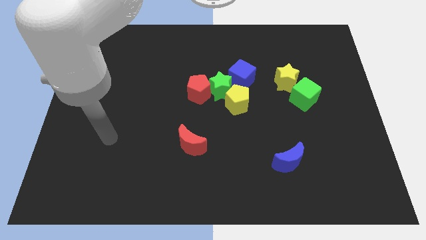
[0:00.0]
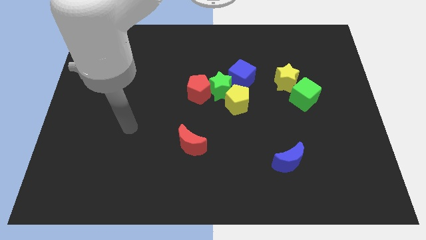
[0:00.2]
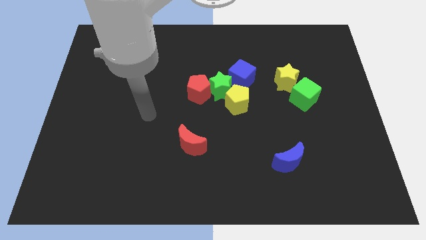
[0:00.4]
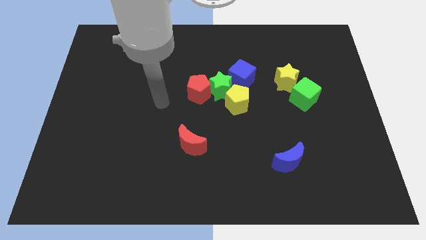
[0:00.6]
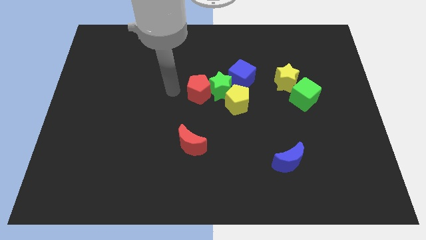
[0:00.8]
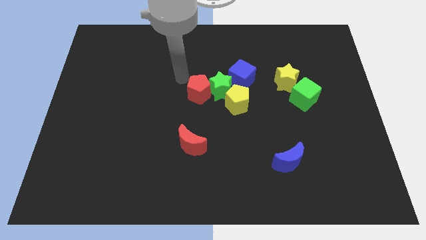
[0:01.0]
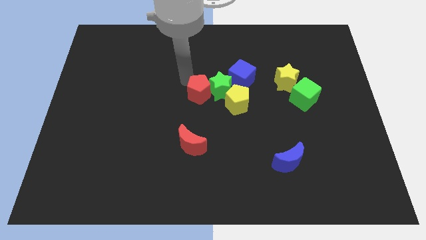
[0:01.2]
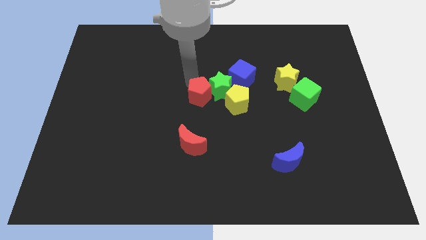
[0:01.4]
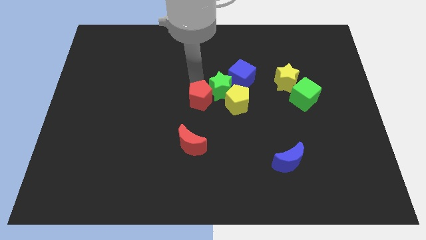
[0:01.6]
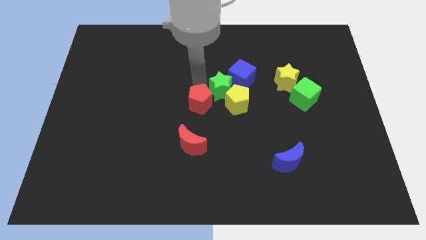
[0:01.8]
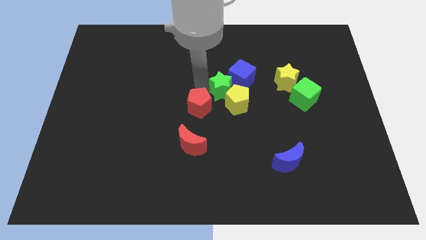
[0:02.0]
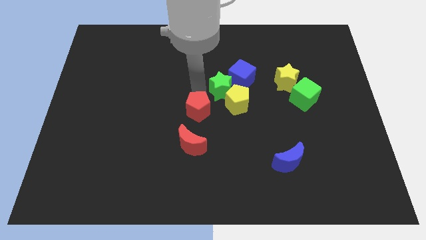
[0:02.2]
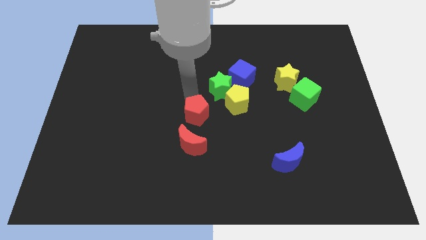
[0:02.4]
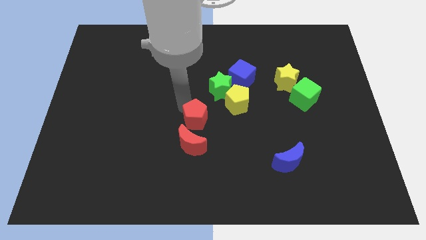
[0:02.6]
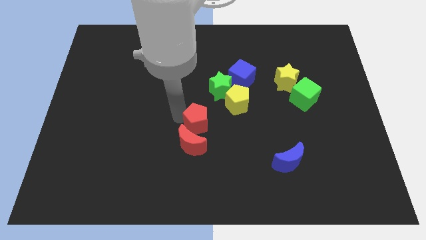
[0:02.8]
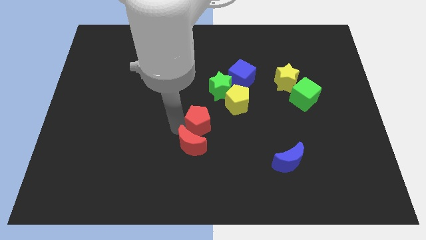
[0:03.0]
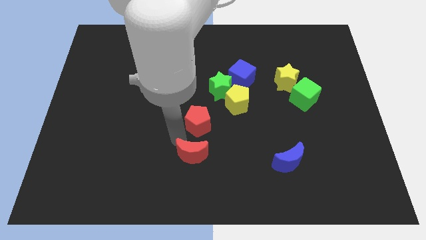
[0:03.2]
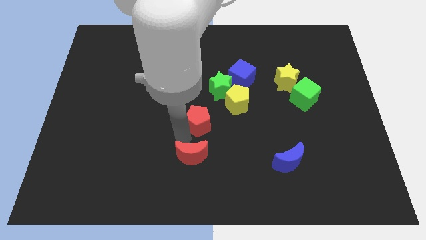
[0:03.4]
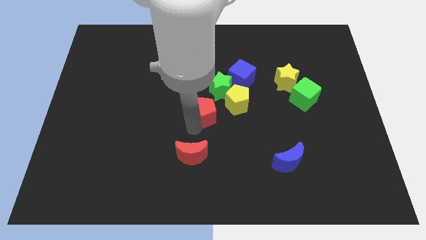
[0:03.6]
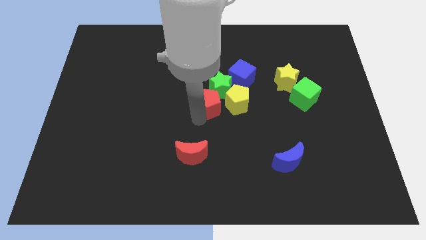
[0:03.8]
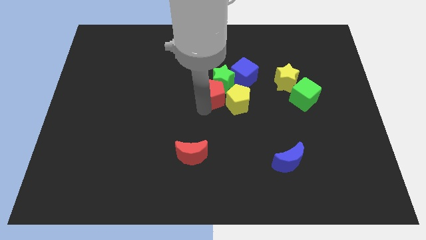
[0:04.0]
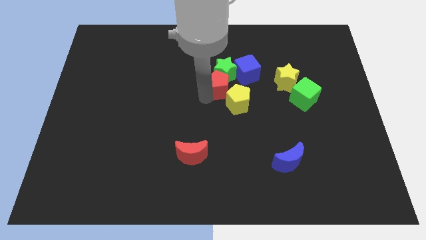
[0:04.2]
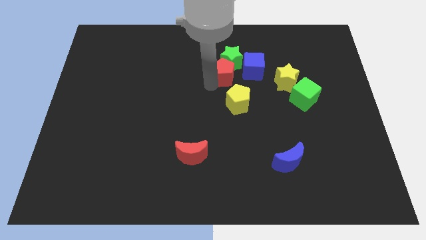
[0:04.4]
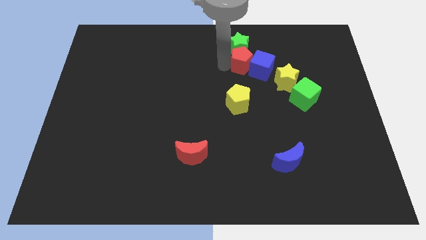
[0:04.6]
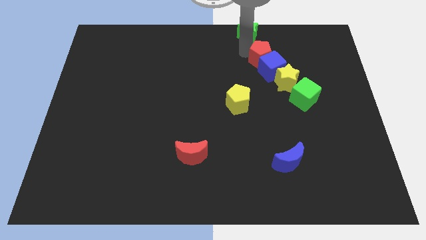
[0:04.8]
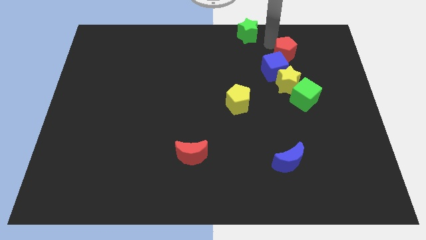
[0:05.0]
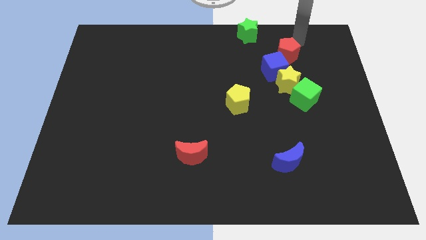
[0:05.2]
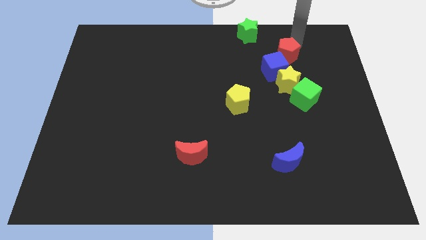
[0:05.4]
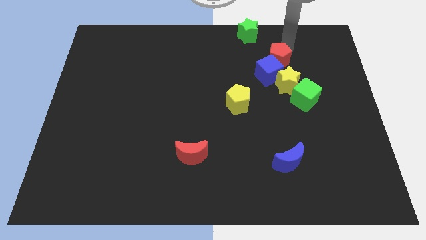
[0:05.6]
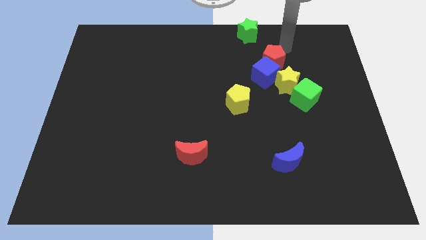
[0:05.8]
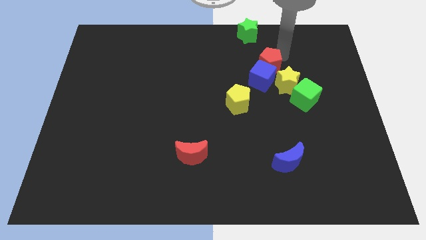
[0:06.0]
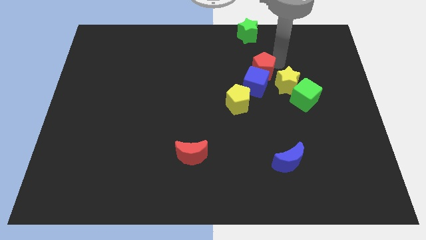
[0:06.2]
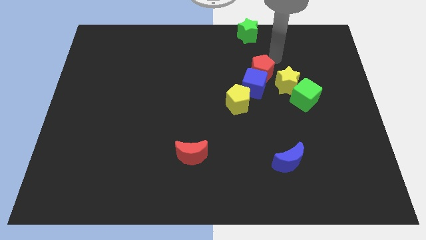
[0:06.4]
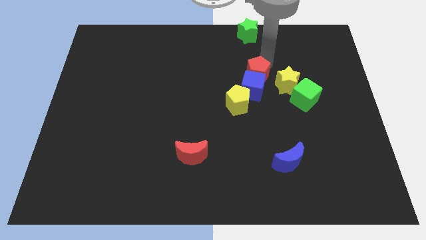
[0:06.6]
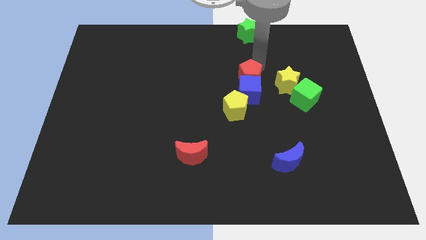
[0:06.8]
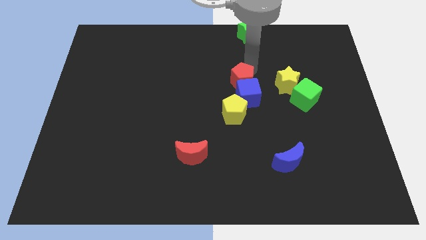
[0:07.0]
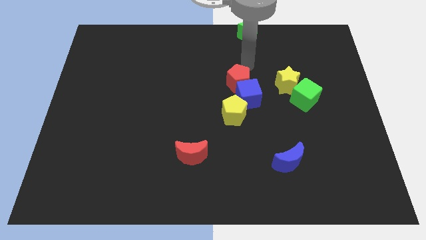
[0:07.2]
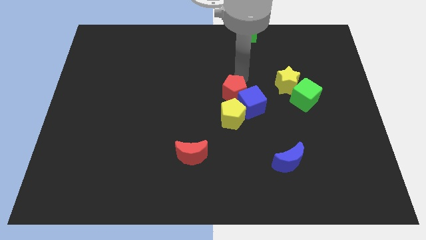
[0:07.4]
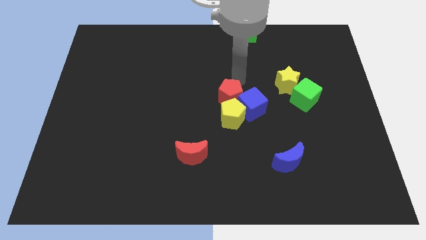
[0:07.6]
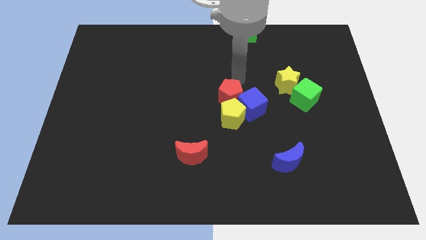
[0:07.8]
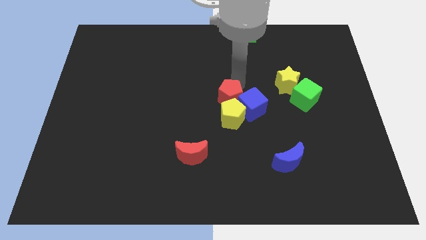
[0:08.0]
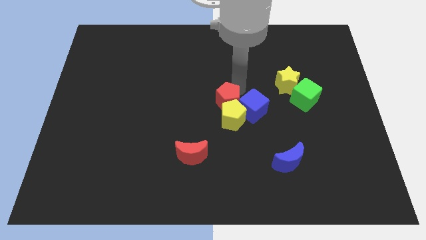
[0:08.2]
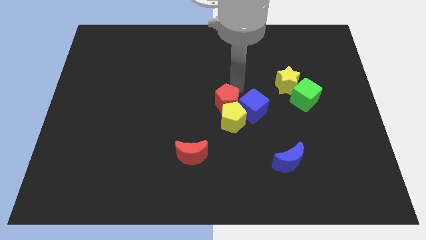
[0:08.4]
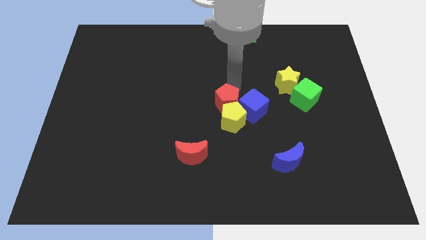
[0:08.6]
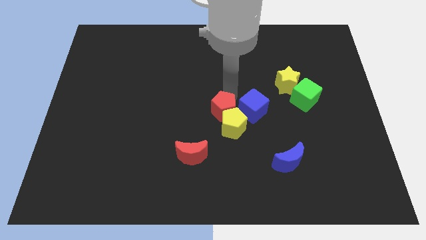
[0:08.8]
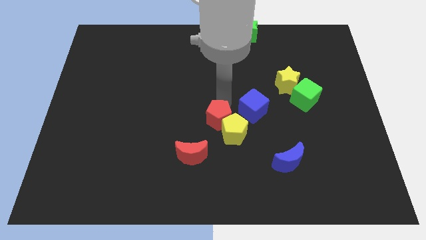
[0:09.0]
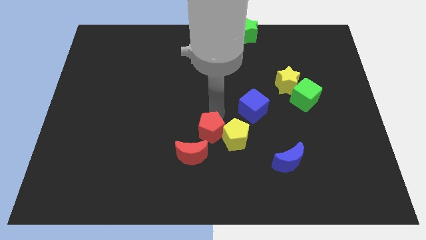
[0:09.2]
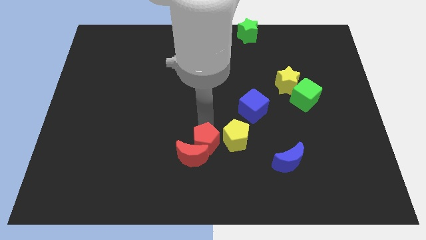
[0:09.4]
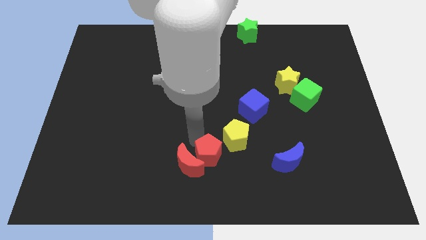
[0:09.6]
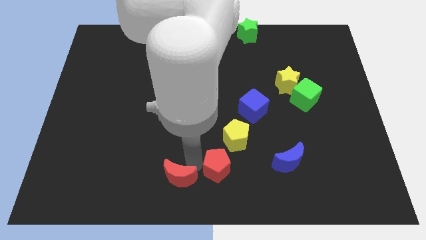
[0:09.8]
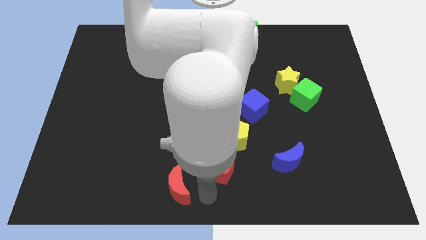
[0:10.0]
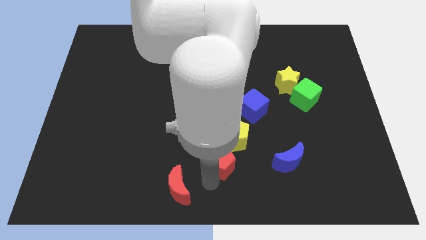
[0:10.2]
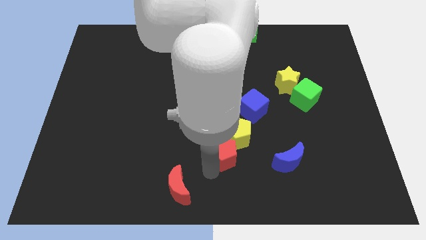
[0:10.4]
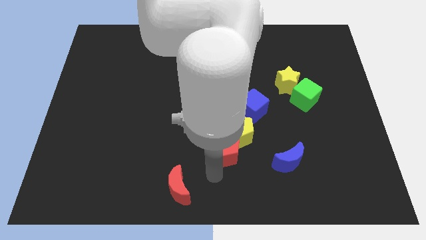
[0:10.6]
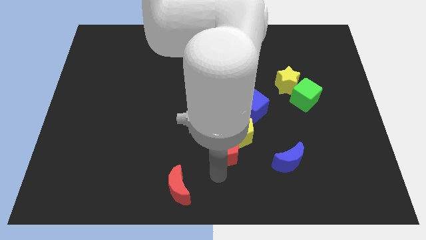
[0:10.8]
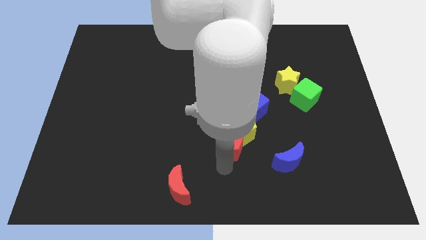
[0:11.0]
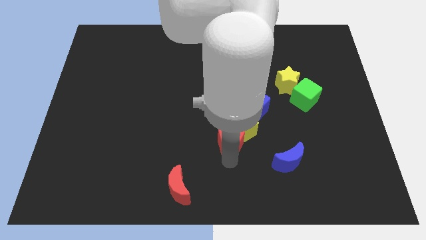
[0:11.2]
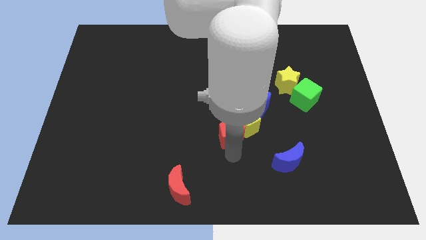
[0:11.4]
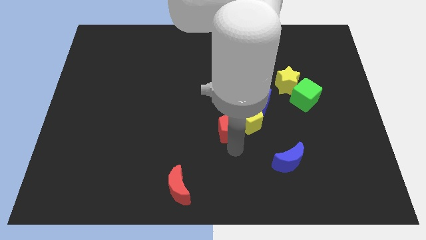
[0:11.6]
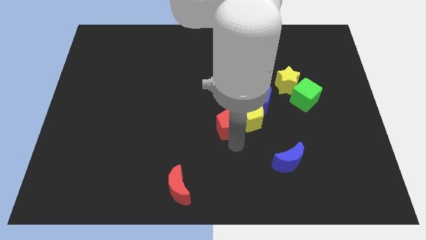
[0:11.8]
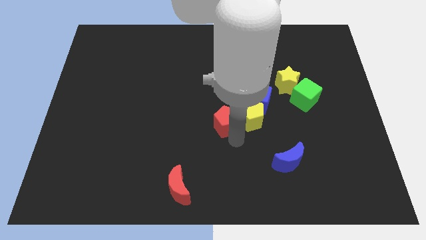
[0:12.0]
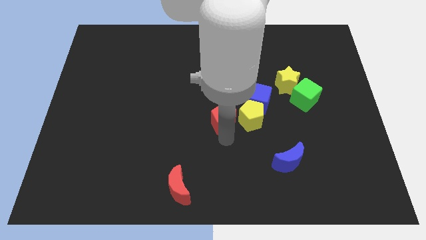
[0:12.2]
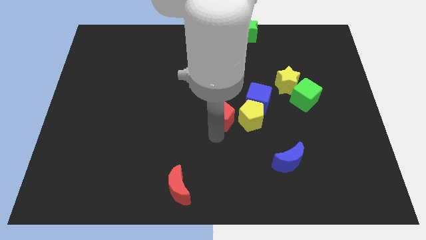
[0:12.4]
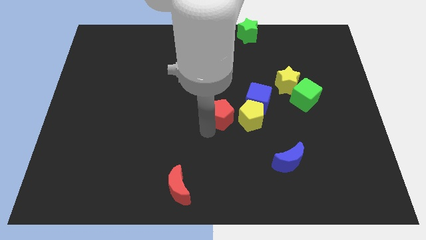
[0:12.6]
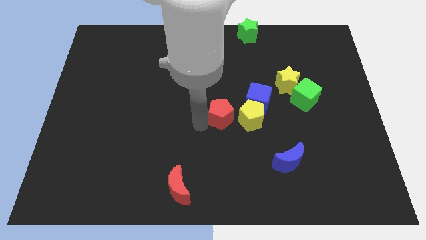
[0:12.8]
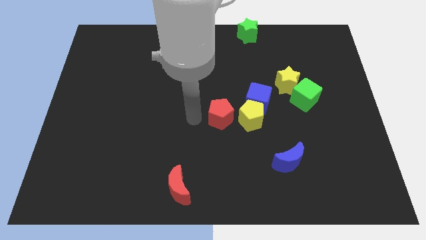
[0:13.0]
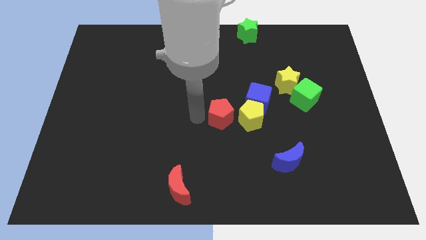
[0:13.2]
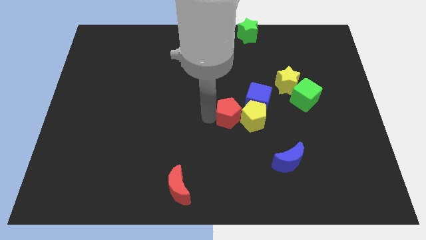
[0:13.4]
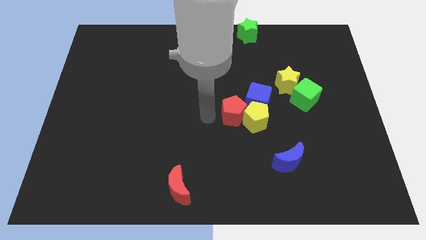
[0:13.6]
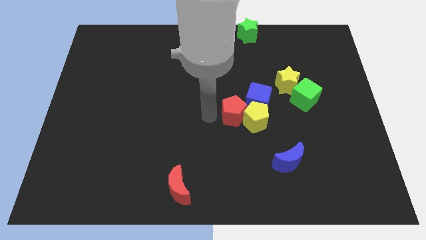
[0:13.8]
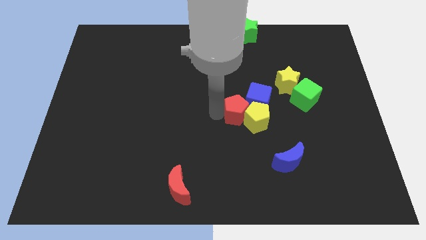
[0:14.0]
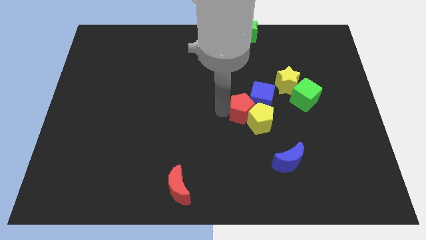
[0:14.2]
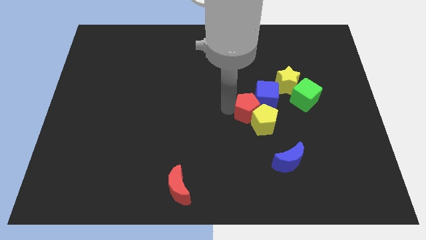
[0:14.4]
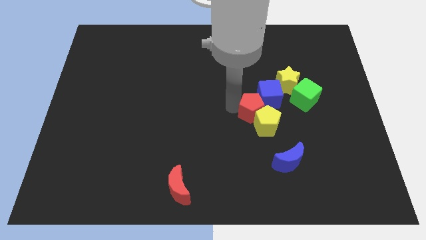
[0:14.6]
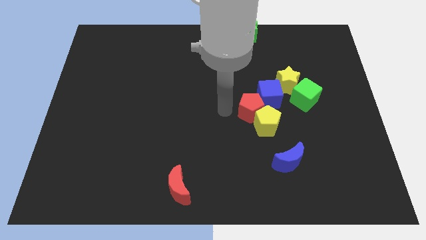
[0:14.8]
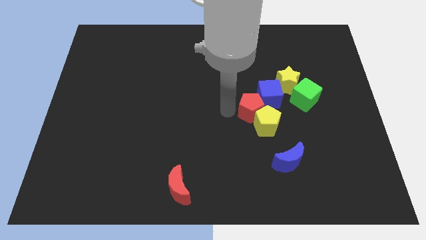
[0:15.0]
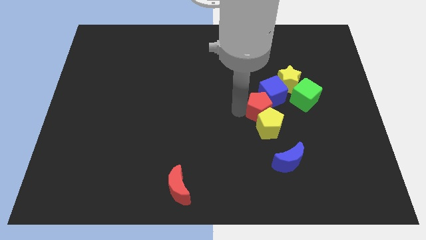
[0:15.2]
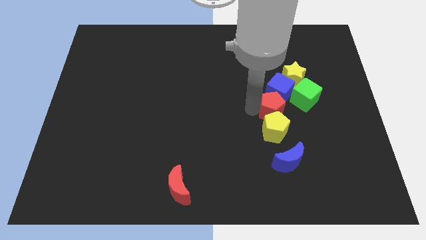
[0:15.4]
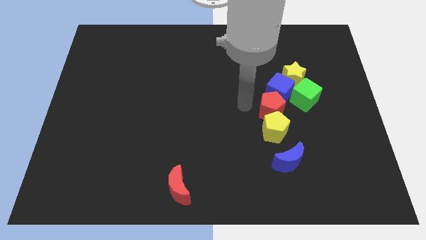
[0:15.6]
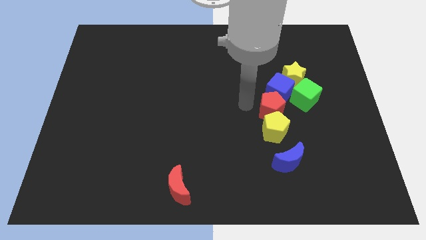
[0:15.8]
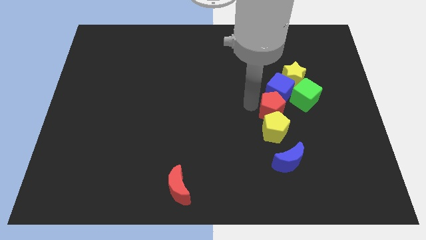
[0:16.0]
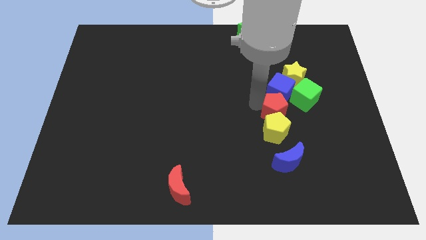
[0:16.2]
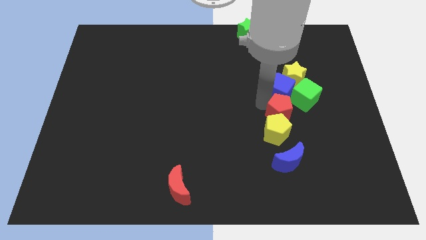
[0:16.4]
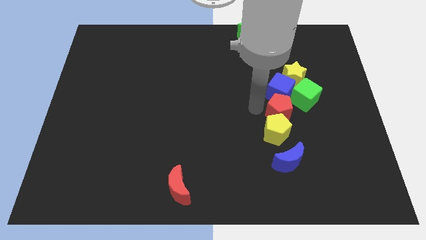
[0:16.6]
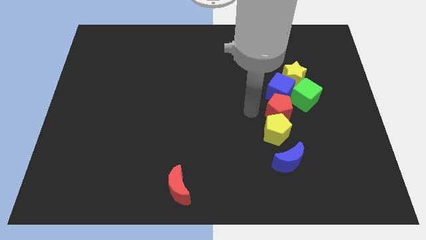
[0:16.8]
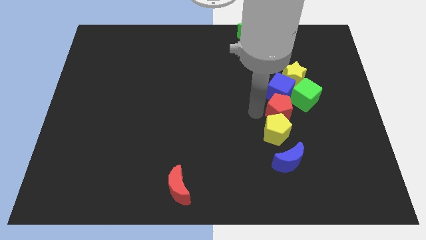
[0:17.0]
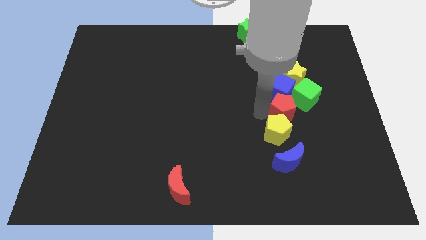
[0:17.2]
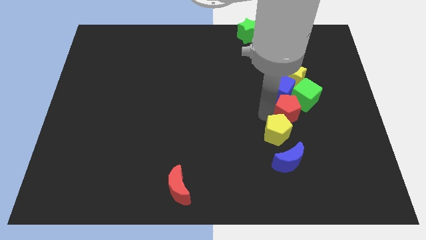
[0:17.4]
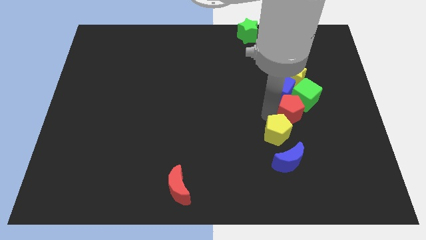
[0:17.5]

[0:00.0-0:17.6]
move the red pentagon right
